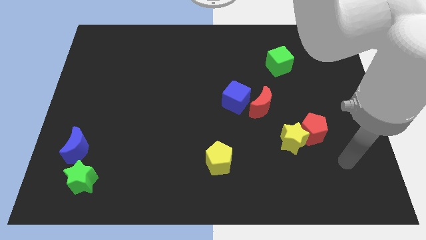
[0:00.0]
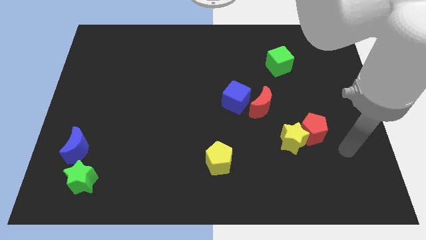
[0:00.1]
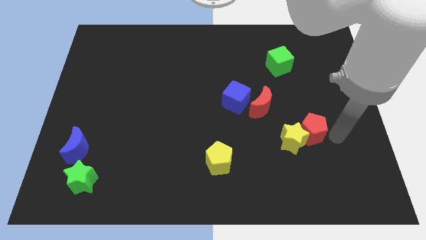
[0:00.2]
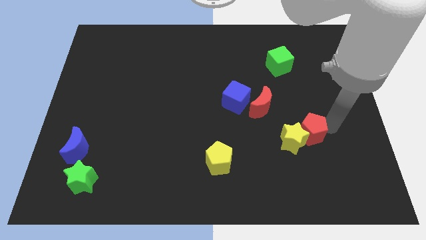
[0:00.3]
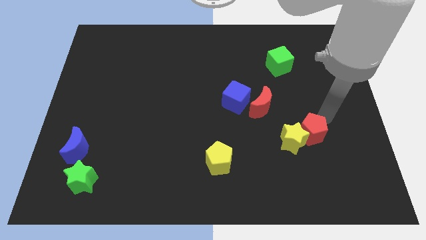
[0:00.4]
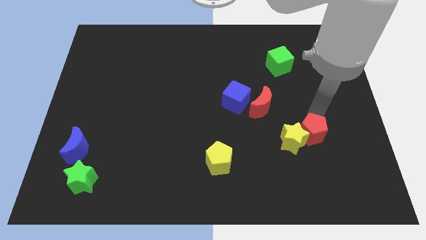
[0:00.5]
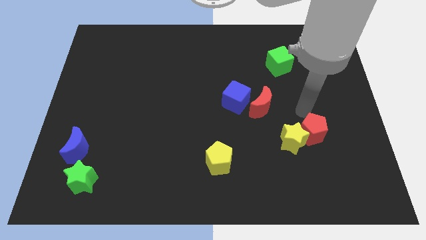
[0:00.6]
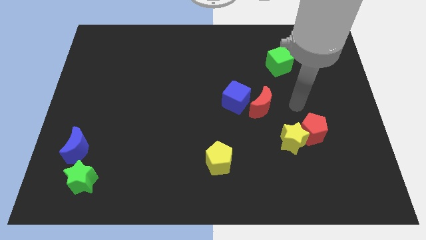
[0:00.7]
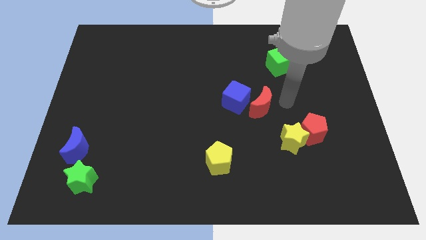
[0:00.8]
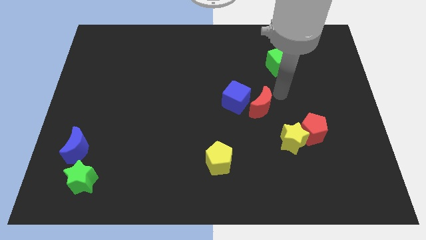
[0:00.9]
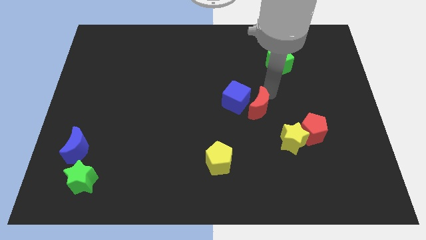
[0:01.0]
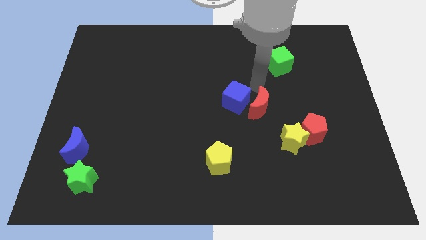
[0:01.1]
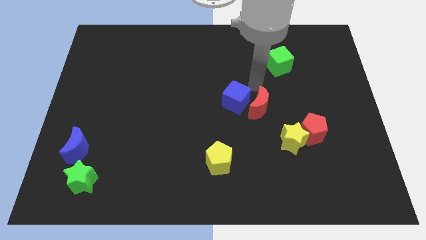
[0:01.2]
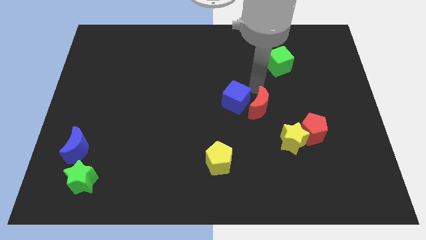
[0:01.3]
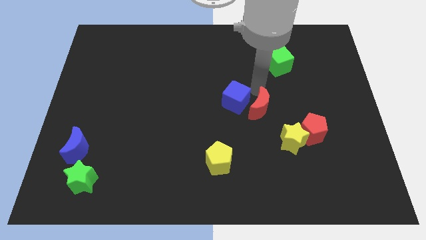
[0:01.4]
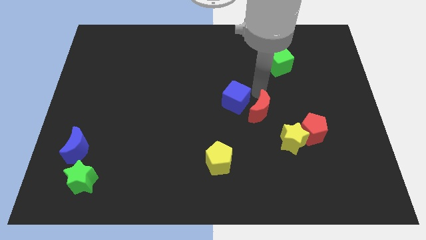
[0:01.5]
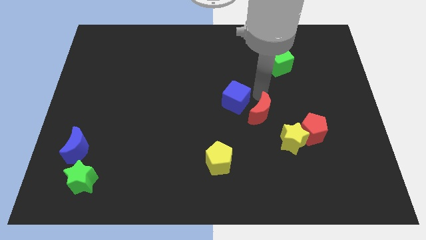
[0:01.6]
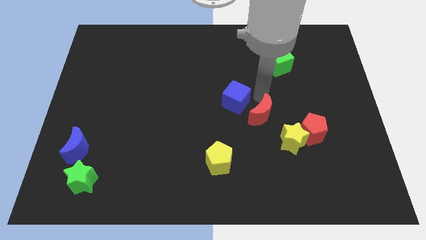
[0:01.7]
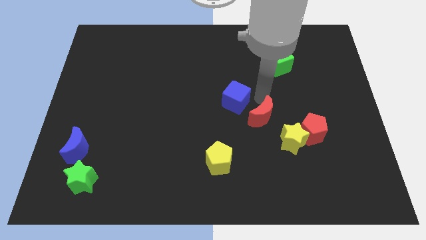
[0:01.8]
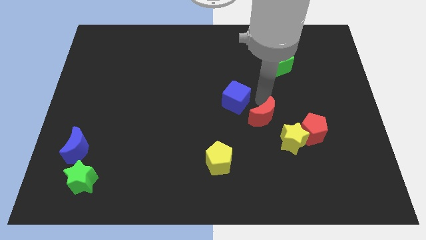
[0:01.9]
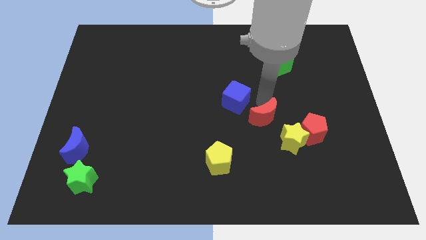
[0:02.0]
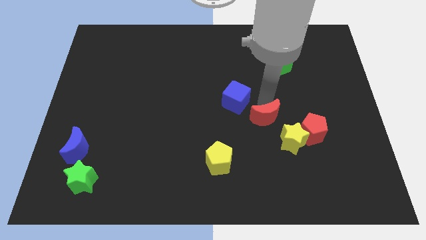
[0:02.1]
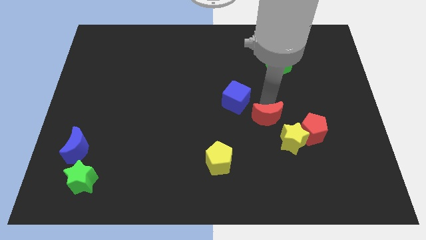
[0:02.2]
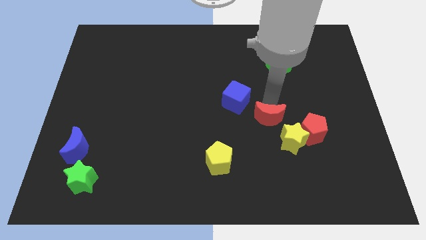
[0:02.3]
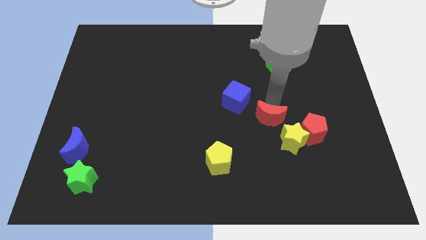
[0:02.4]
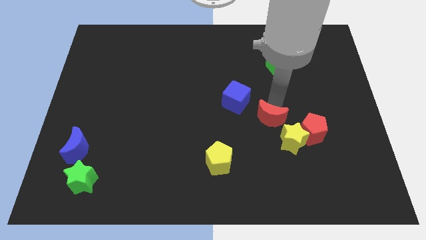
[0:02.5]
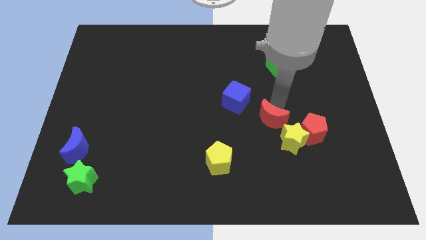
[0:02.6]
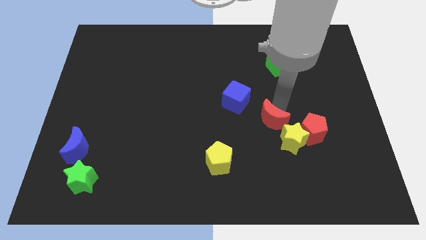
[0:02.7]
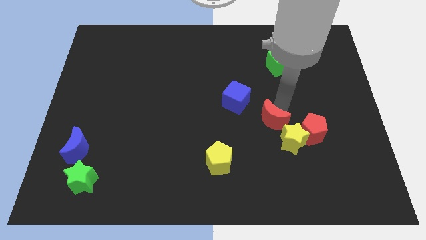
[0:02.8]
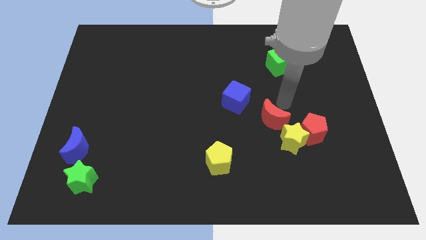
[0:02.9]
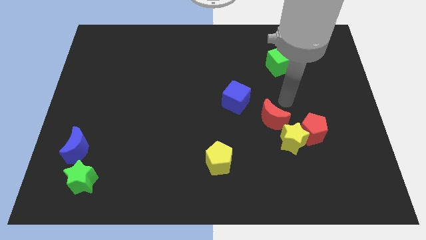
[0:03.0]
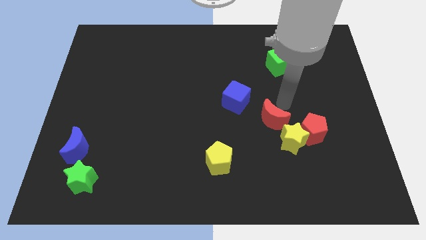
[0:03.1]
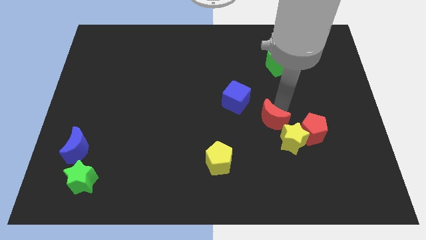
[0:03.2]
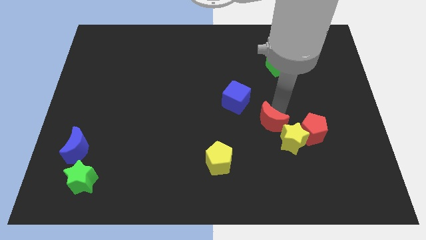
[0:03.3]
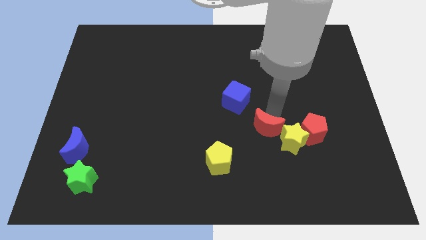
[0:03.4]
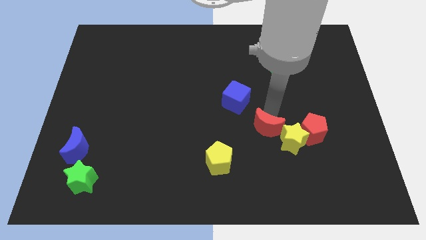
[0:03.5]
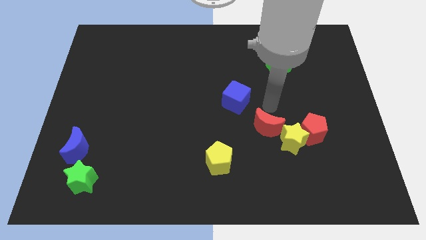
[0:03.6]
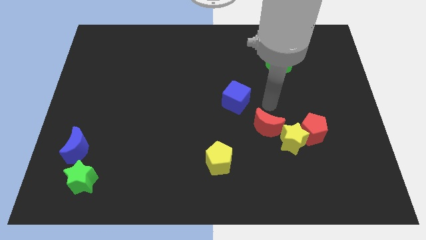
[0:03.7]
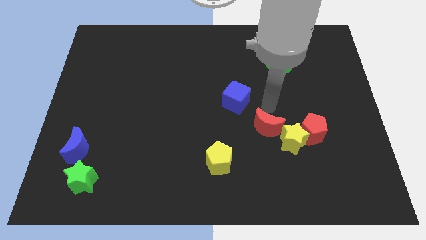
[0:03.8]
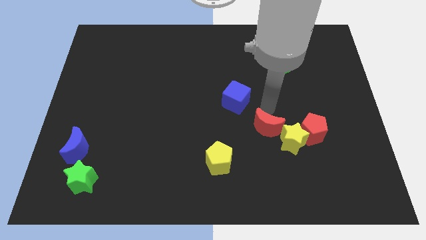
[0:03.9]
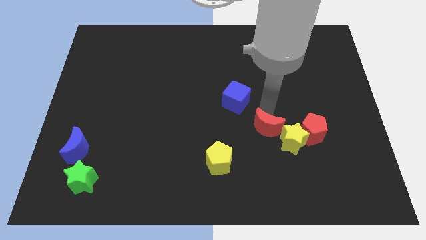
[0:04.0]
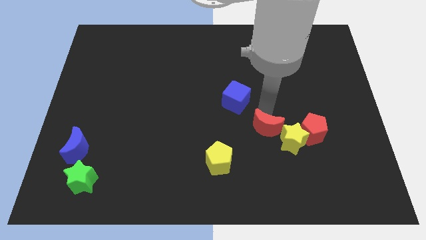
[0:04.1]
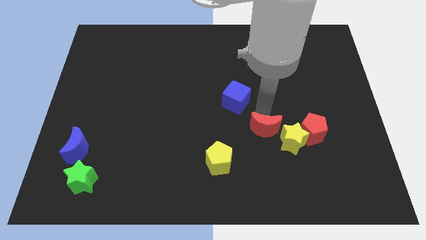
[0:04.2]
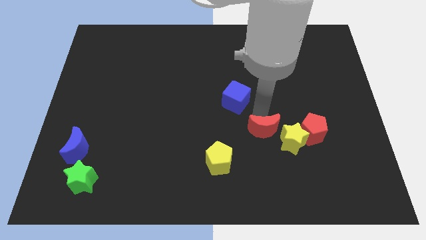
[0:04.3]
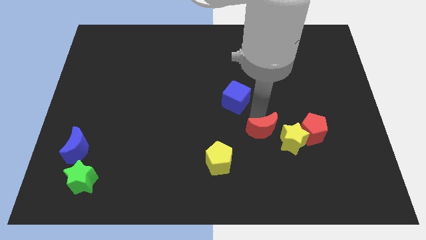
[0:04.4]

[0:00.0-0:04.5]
move the red moon a bit down

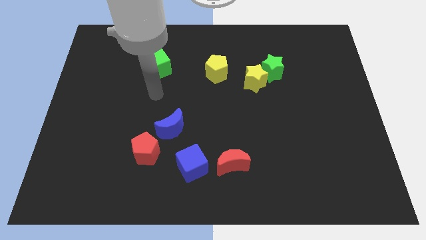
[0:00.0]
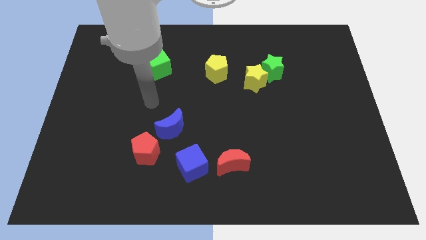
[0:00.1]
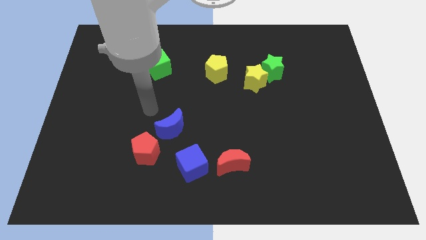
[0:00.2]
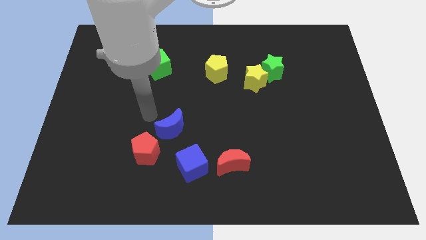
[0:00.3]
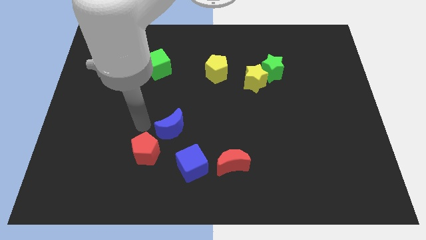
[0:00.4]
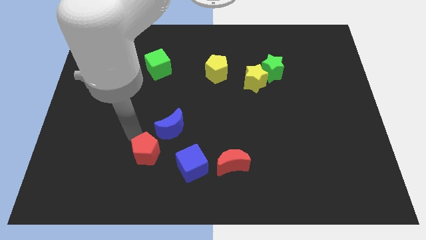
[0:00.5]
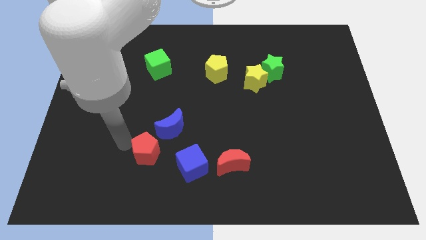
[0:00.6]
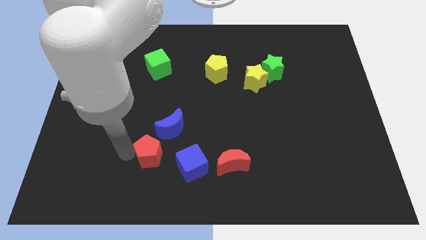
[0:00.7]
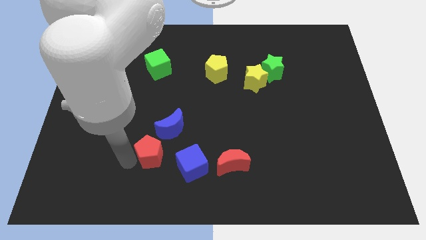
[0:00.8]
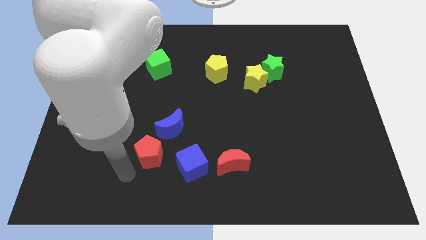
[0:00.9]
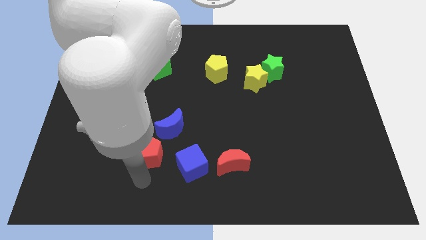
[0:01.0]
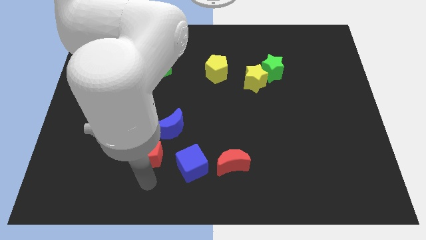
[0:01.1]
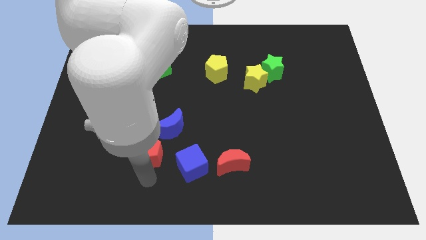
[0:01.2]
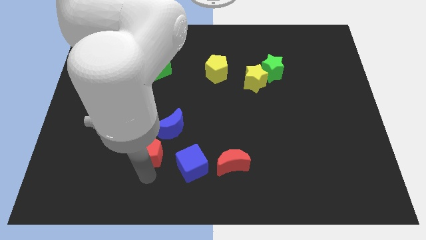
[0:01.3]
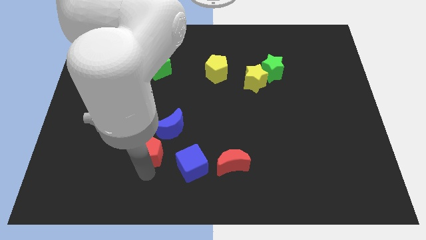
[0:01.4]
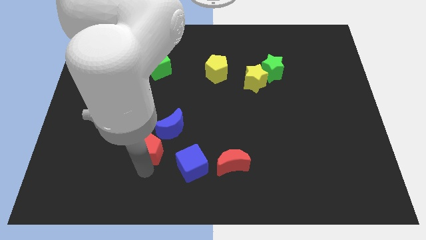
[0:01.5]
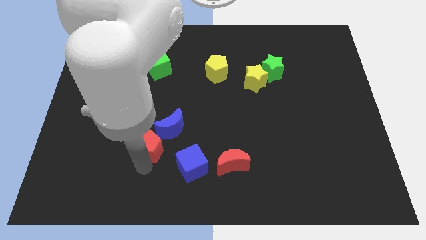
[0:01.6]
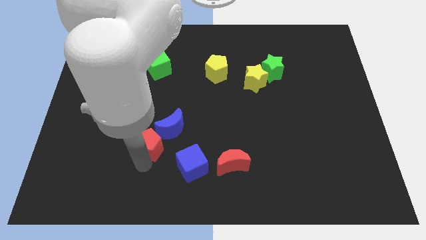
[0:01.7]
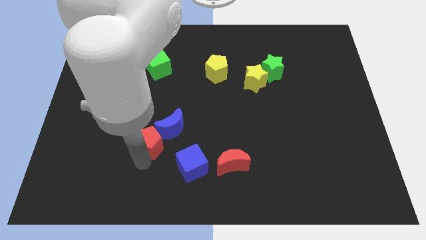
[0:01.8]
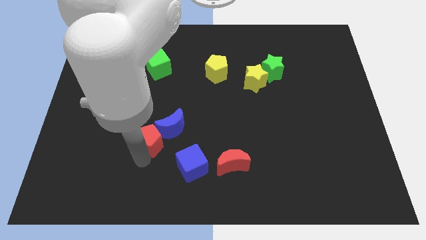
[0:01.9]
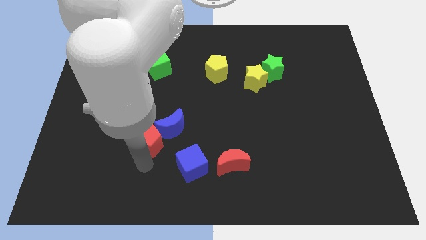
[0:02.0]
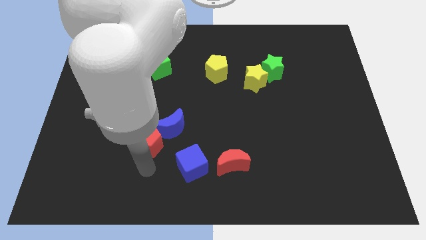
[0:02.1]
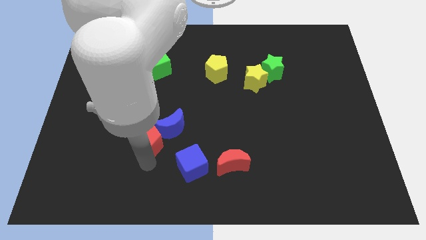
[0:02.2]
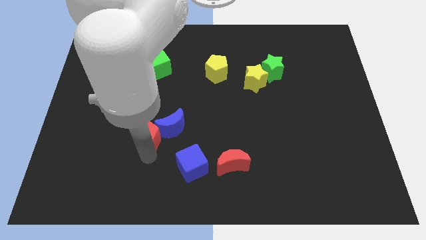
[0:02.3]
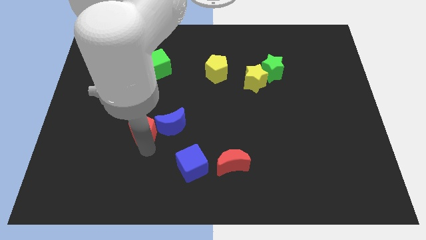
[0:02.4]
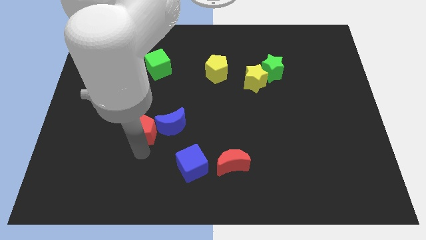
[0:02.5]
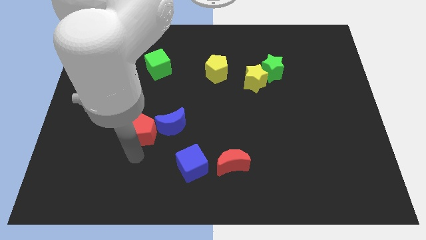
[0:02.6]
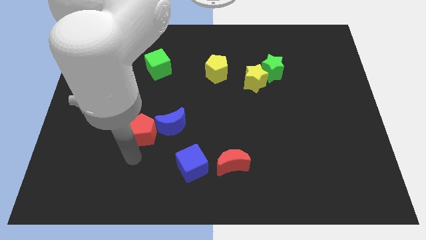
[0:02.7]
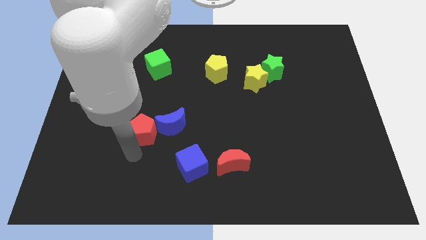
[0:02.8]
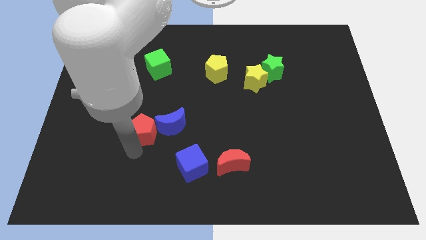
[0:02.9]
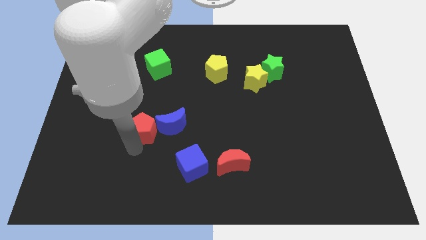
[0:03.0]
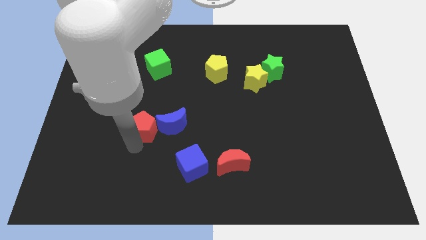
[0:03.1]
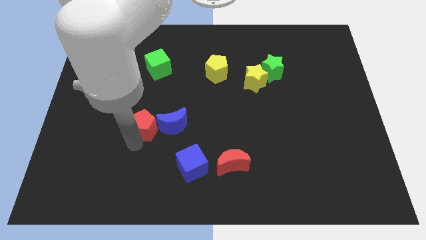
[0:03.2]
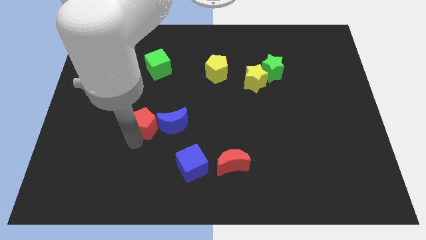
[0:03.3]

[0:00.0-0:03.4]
push the red pentagon up a little bit

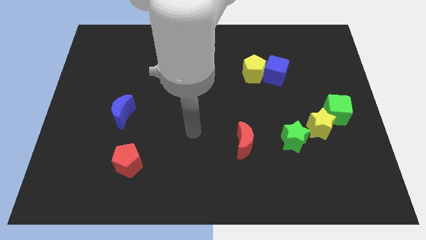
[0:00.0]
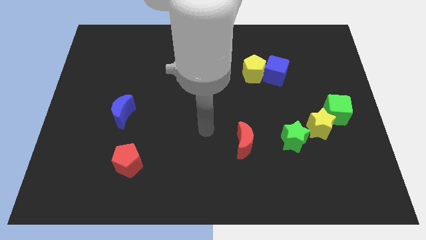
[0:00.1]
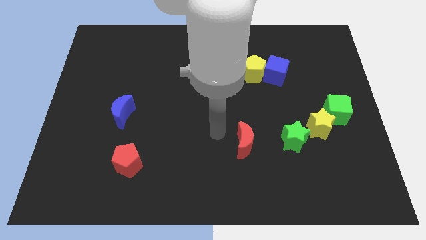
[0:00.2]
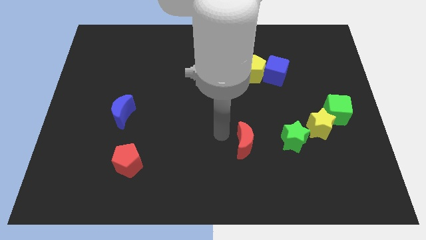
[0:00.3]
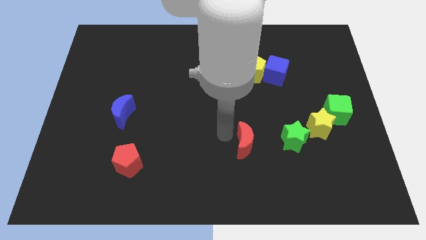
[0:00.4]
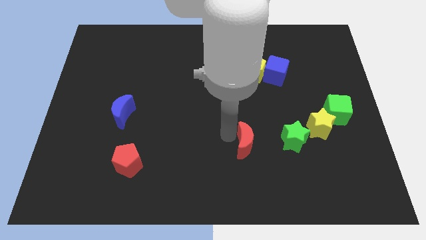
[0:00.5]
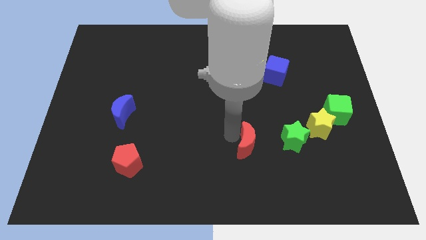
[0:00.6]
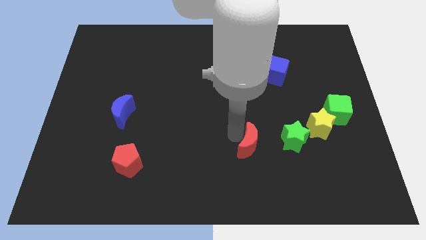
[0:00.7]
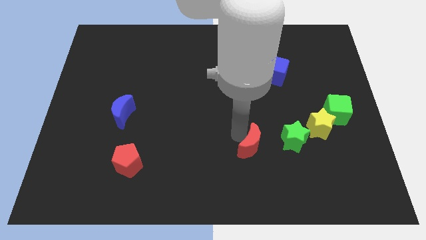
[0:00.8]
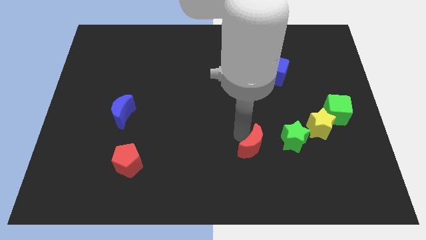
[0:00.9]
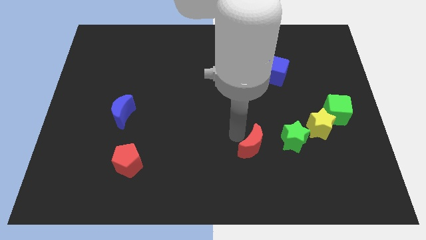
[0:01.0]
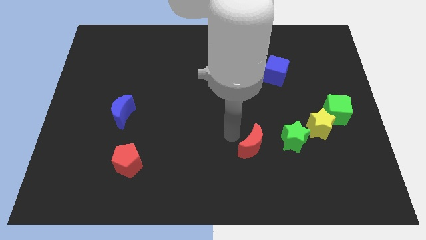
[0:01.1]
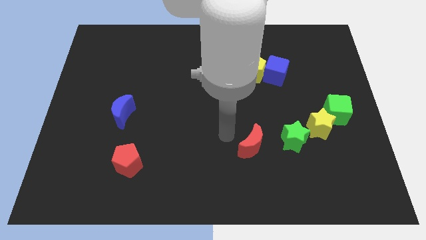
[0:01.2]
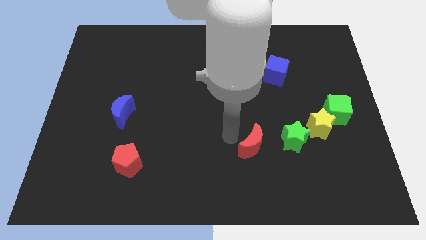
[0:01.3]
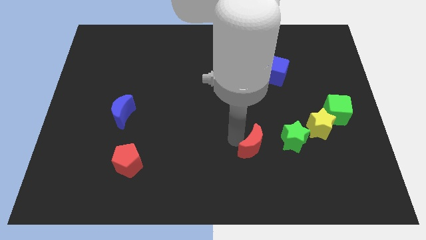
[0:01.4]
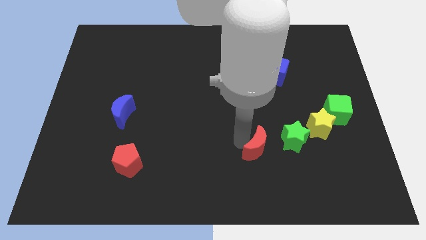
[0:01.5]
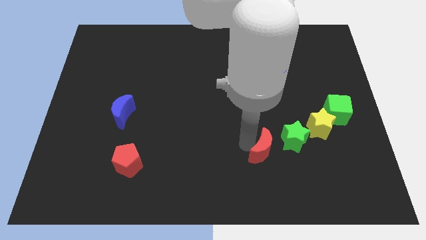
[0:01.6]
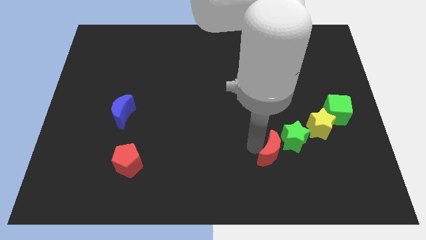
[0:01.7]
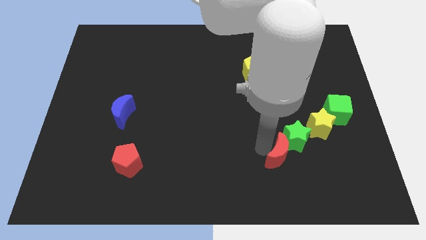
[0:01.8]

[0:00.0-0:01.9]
push the red moon right a bit
